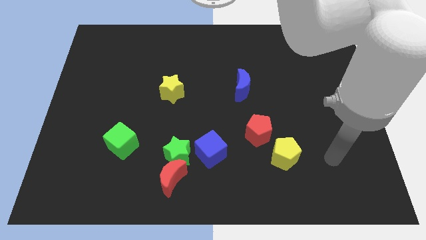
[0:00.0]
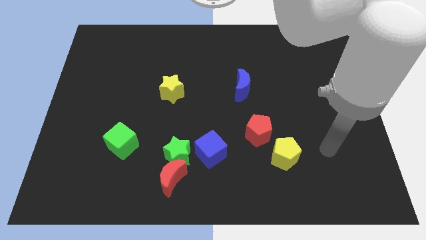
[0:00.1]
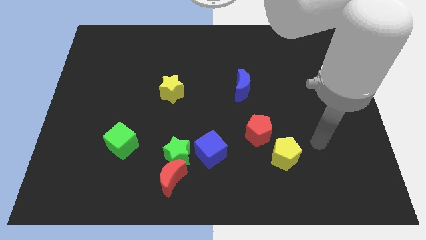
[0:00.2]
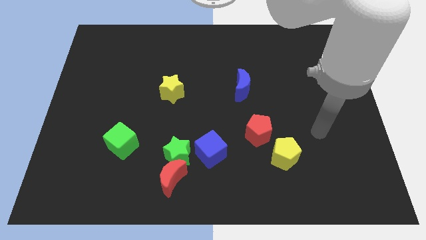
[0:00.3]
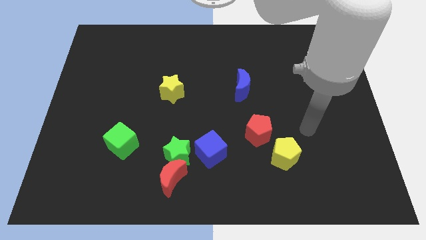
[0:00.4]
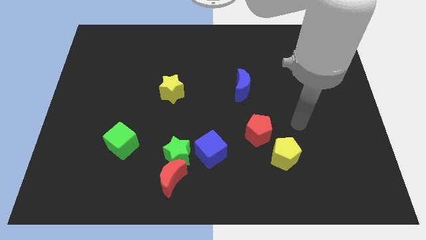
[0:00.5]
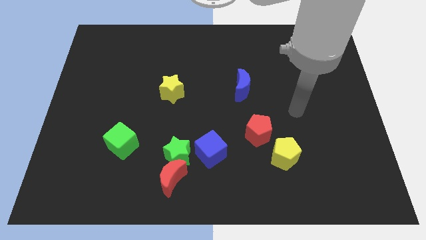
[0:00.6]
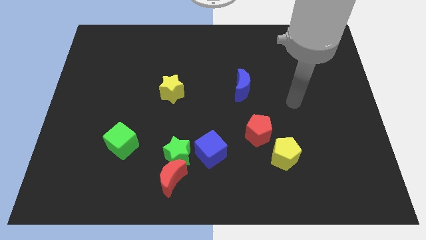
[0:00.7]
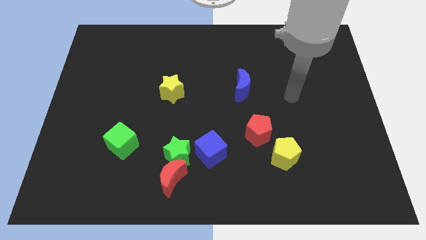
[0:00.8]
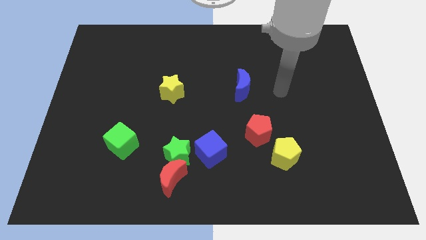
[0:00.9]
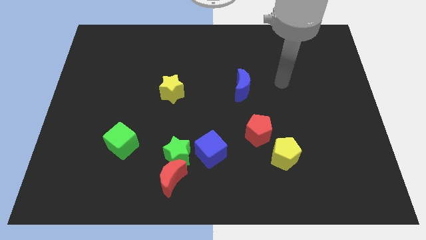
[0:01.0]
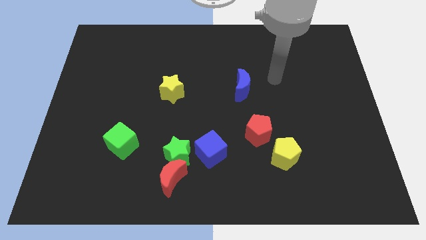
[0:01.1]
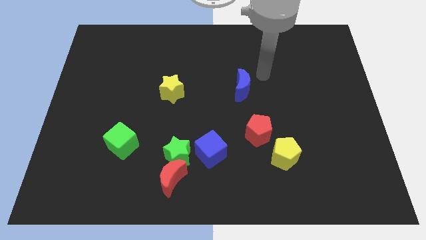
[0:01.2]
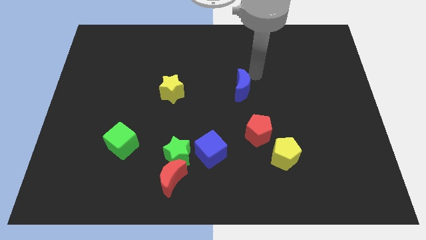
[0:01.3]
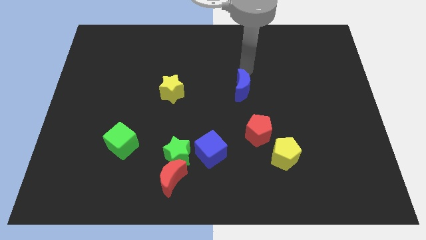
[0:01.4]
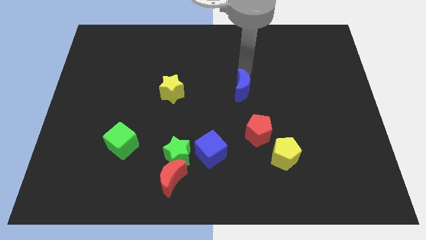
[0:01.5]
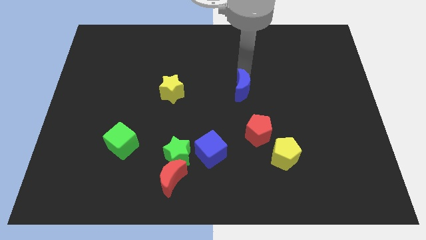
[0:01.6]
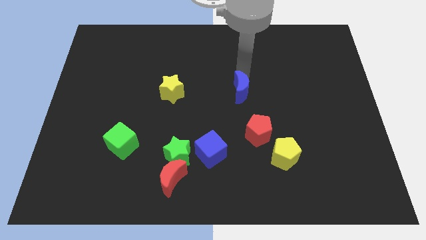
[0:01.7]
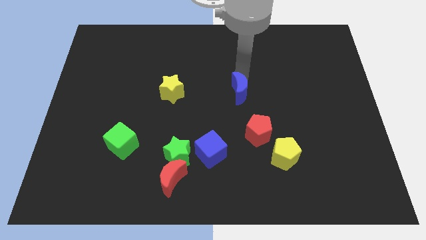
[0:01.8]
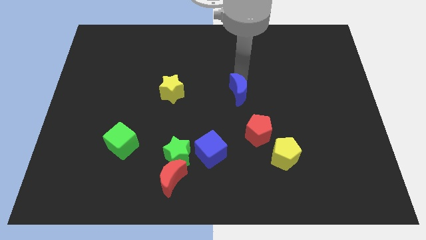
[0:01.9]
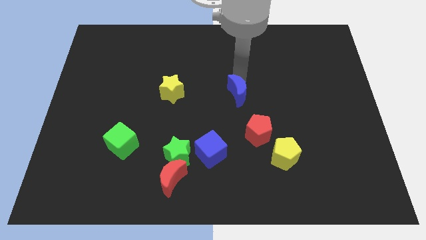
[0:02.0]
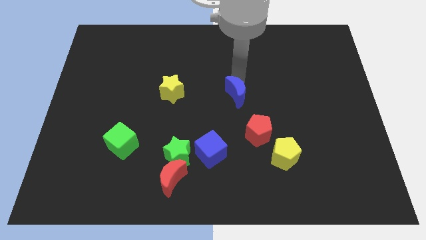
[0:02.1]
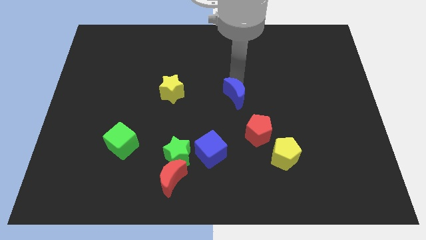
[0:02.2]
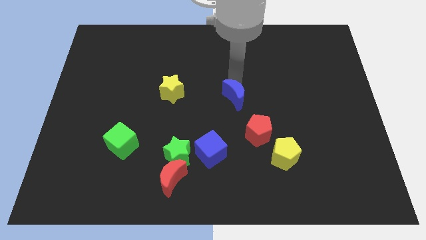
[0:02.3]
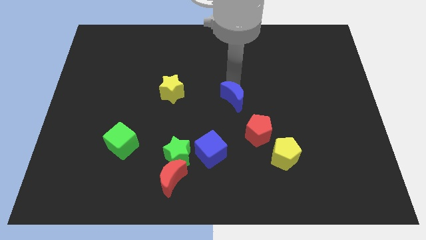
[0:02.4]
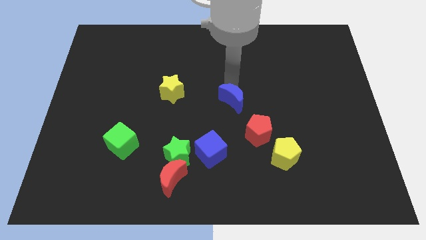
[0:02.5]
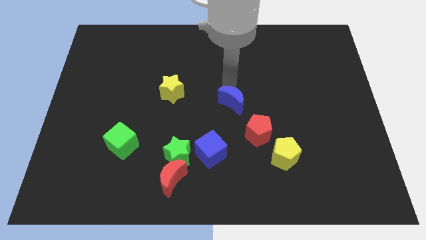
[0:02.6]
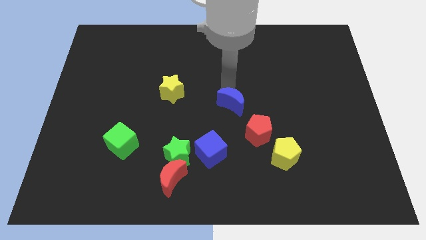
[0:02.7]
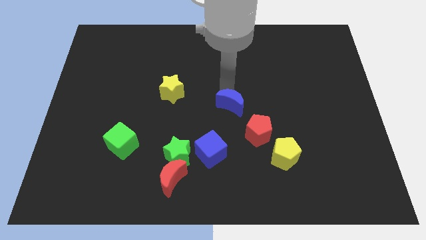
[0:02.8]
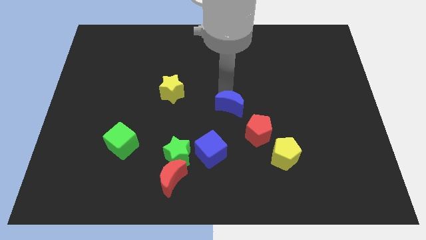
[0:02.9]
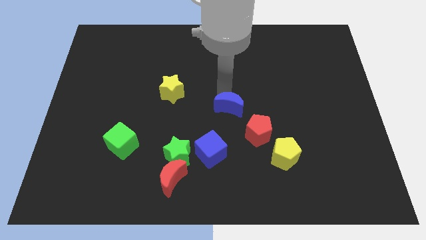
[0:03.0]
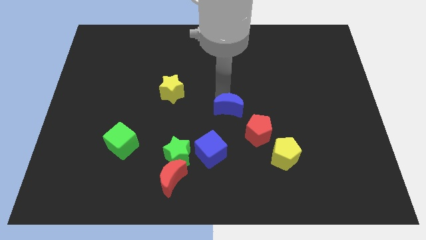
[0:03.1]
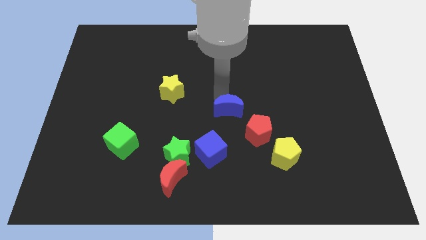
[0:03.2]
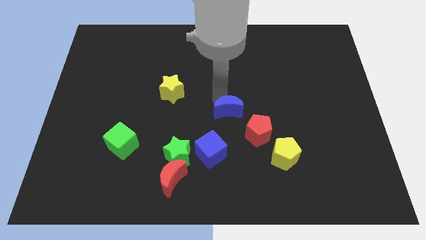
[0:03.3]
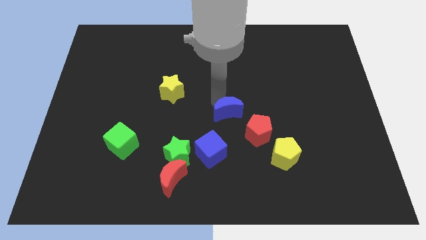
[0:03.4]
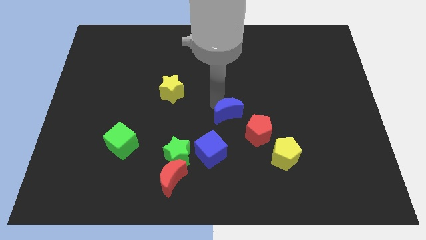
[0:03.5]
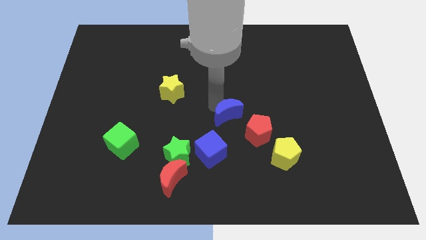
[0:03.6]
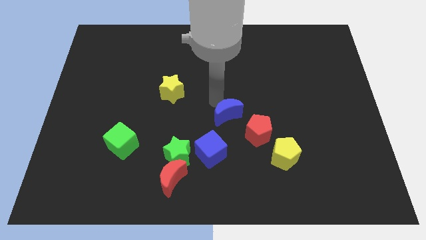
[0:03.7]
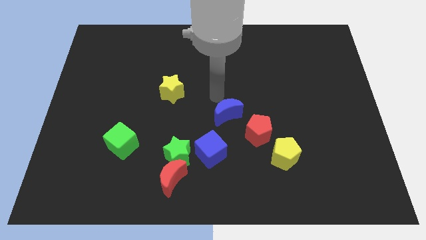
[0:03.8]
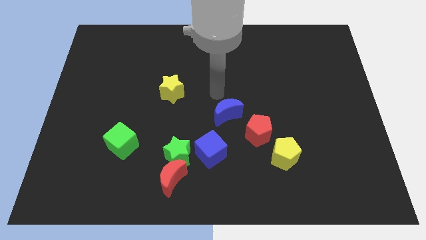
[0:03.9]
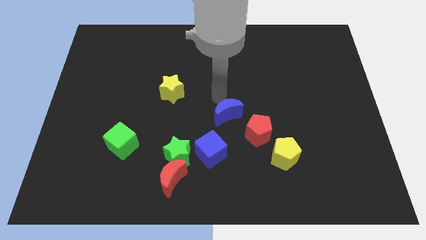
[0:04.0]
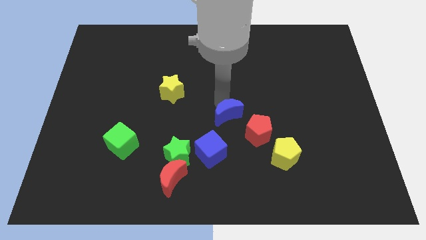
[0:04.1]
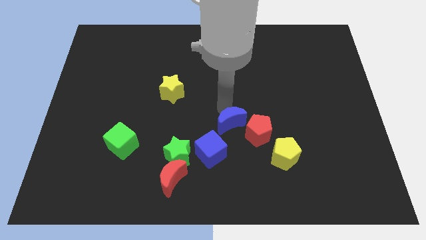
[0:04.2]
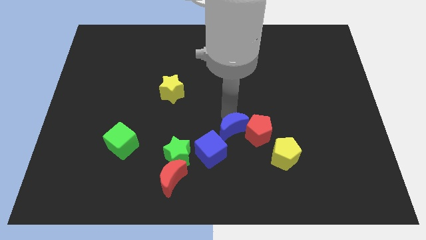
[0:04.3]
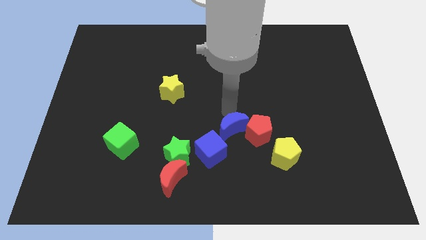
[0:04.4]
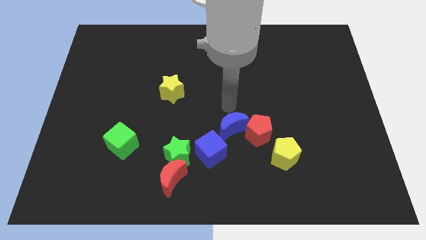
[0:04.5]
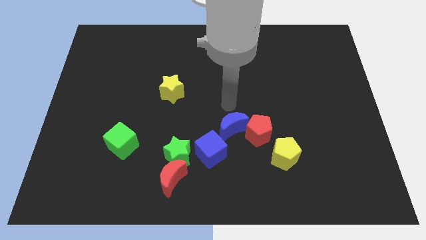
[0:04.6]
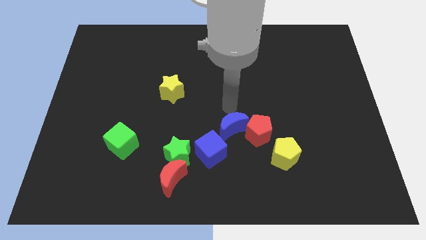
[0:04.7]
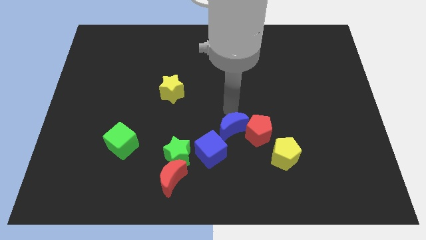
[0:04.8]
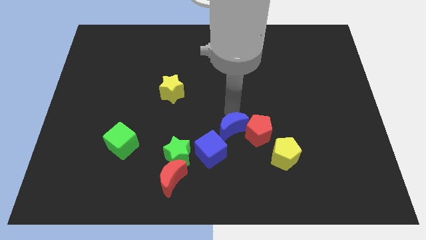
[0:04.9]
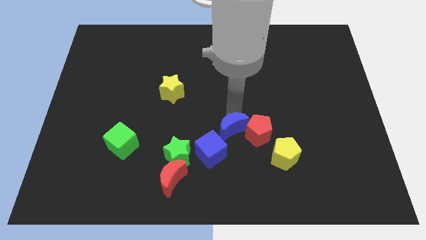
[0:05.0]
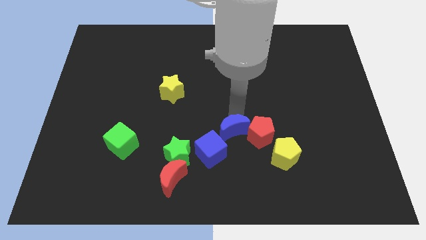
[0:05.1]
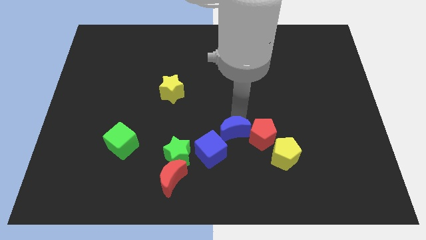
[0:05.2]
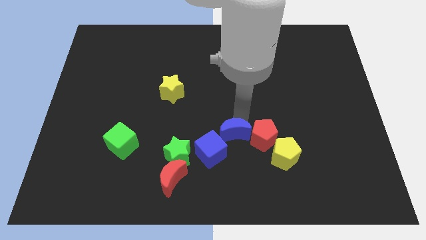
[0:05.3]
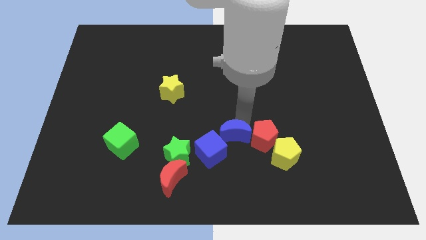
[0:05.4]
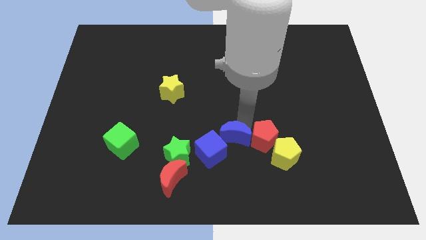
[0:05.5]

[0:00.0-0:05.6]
slide the blue moon to the left side of the yellow pentagon
